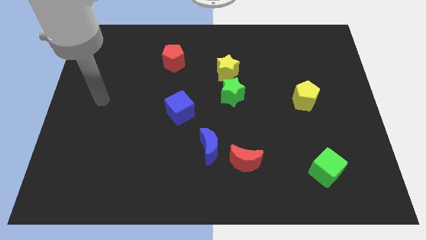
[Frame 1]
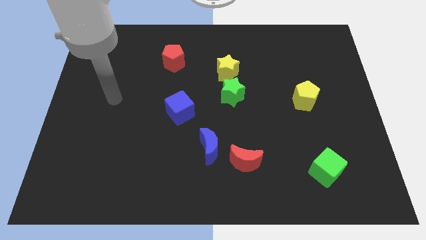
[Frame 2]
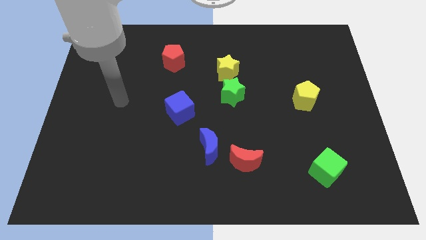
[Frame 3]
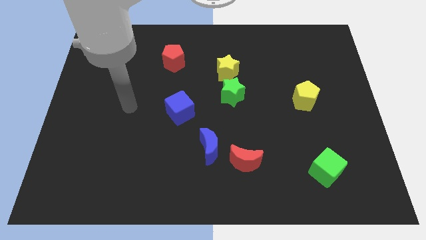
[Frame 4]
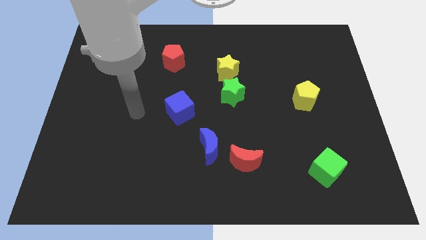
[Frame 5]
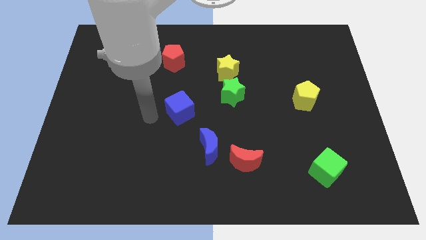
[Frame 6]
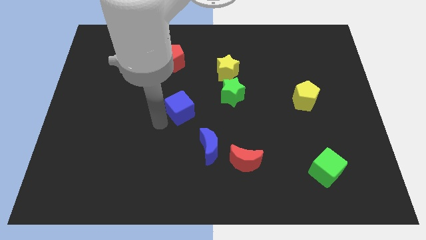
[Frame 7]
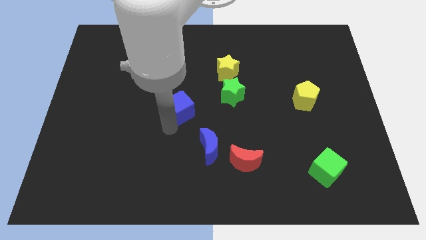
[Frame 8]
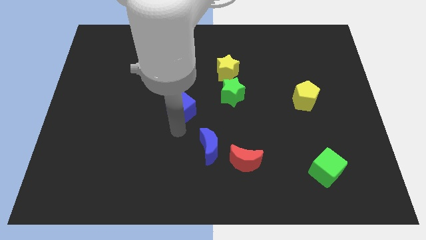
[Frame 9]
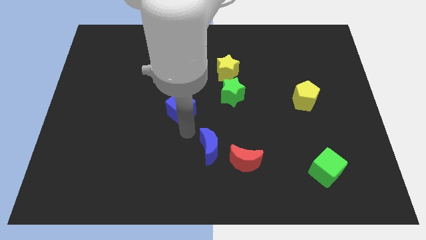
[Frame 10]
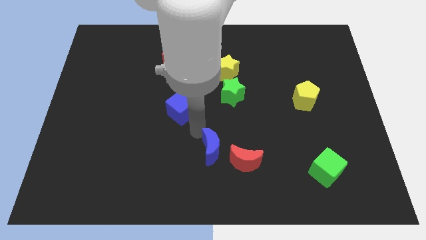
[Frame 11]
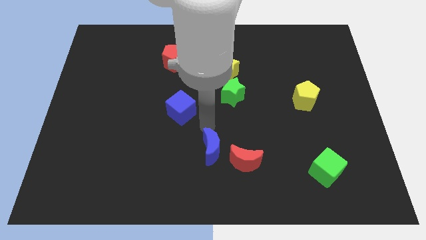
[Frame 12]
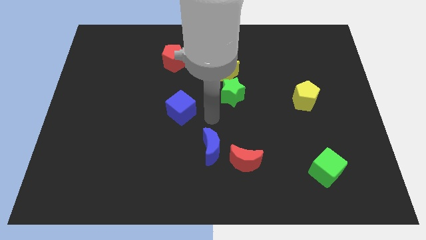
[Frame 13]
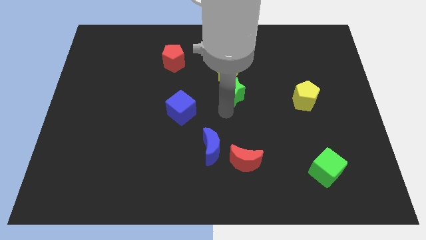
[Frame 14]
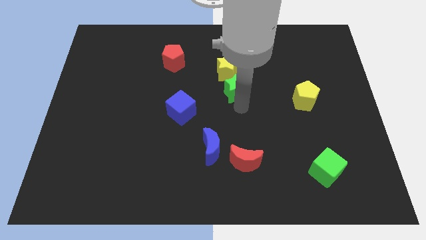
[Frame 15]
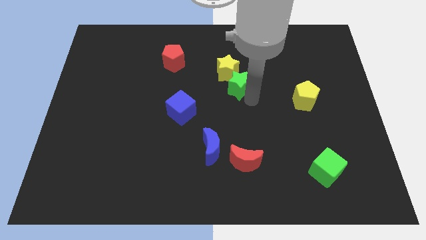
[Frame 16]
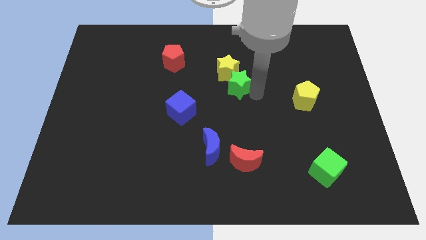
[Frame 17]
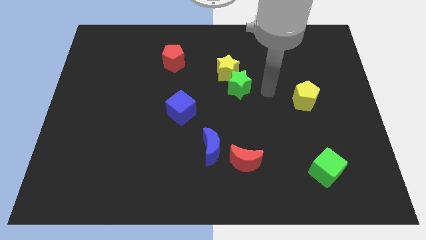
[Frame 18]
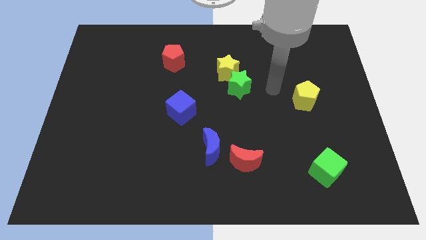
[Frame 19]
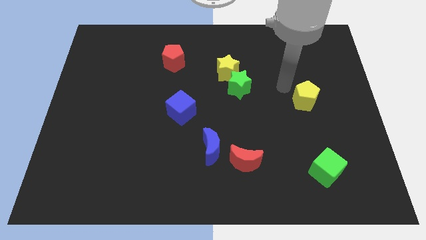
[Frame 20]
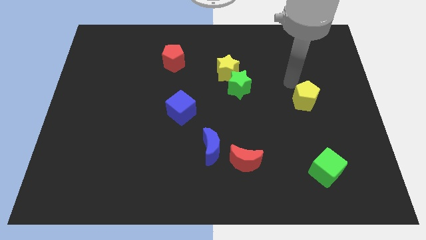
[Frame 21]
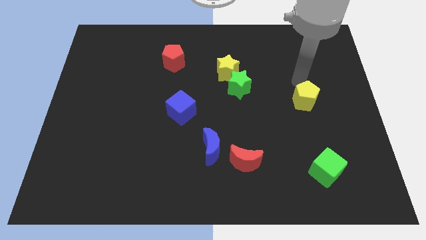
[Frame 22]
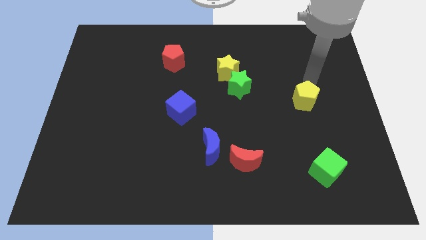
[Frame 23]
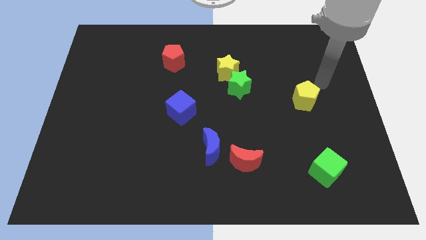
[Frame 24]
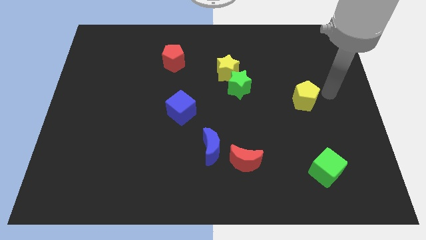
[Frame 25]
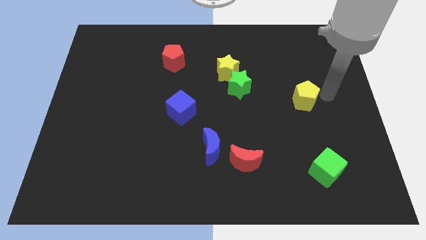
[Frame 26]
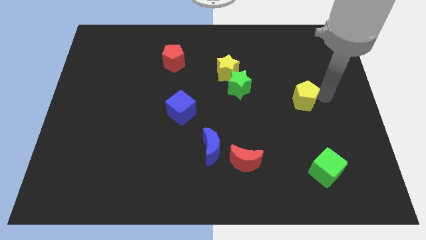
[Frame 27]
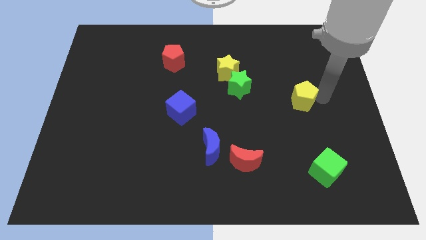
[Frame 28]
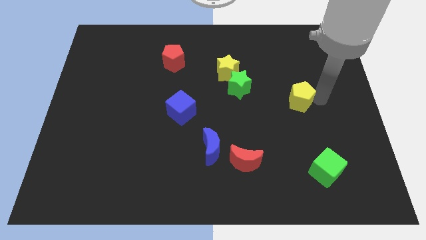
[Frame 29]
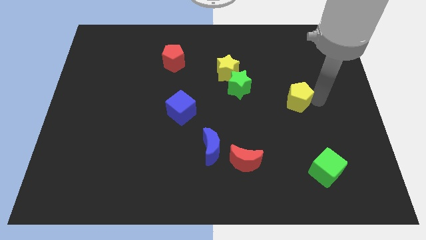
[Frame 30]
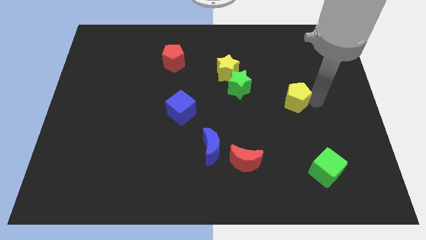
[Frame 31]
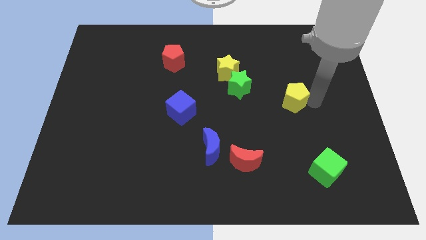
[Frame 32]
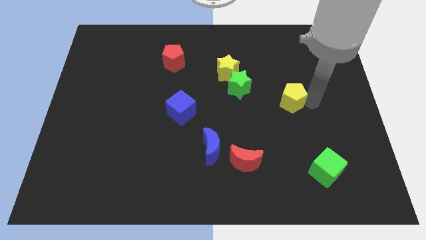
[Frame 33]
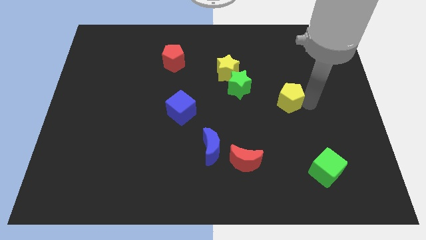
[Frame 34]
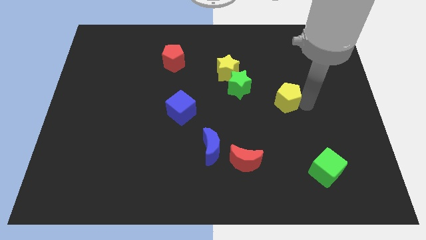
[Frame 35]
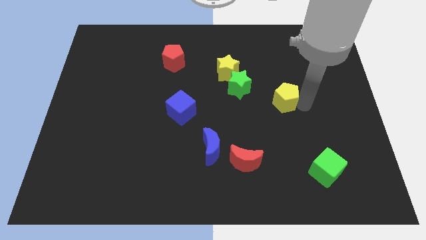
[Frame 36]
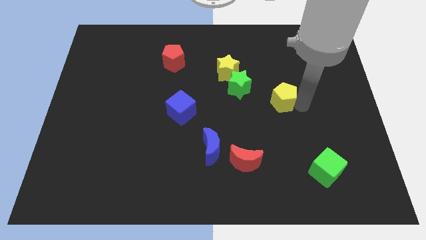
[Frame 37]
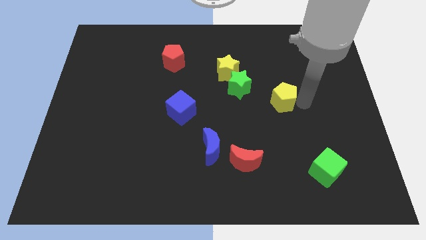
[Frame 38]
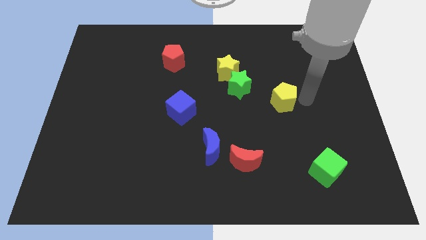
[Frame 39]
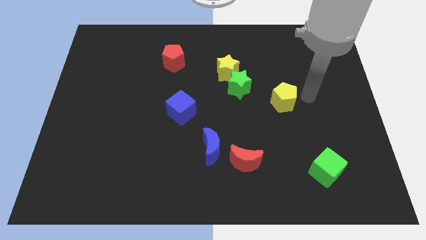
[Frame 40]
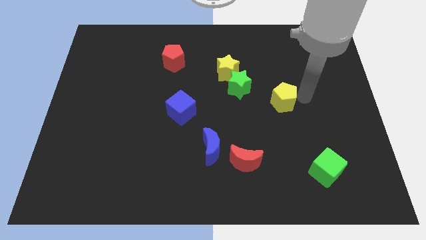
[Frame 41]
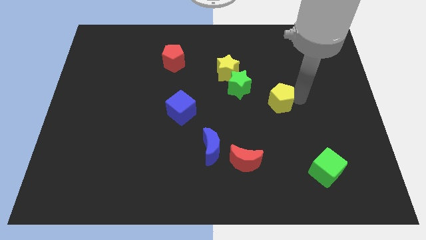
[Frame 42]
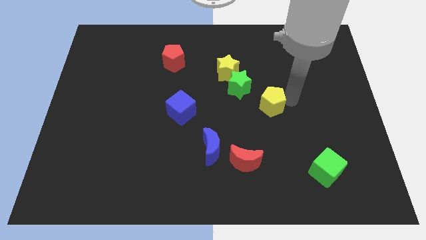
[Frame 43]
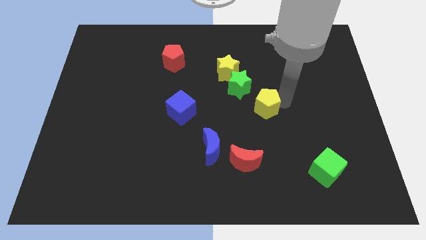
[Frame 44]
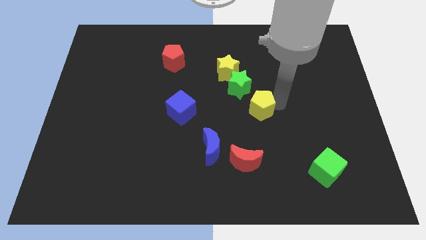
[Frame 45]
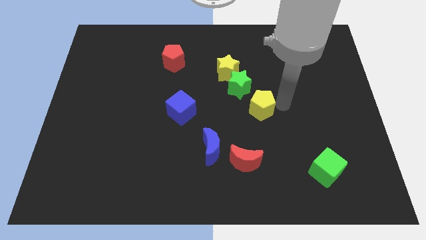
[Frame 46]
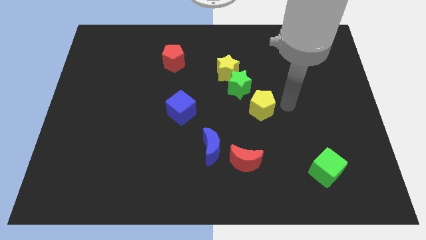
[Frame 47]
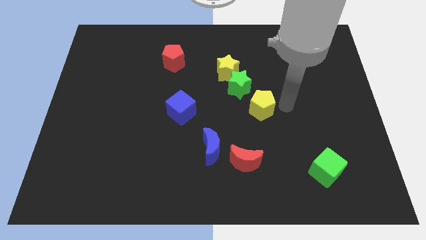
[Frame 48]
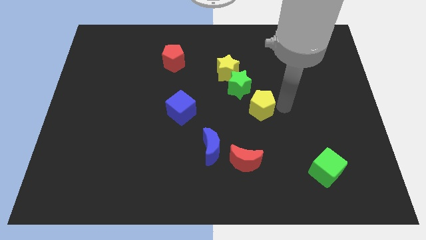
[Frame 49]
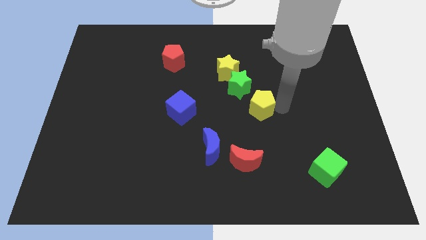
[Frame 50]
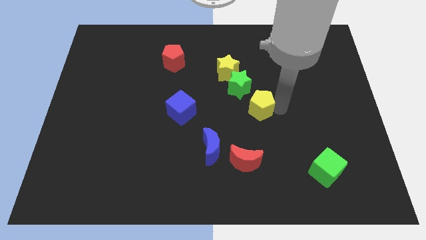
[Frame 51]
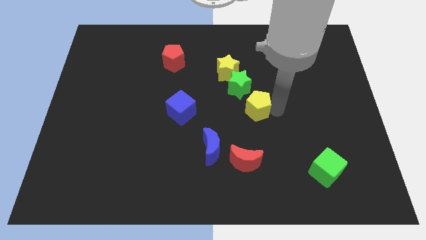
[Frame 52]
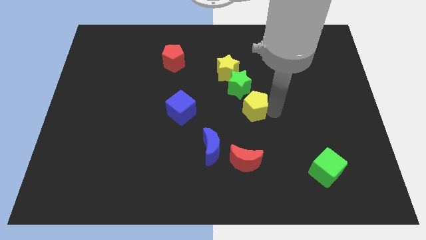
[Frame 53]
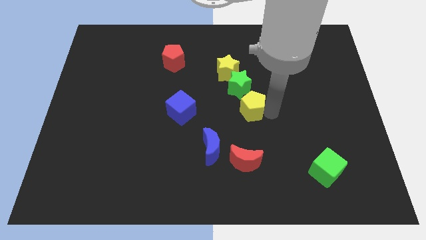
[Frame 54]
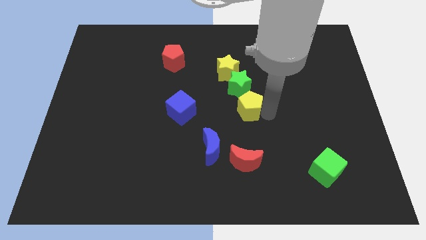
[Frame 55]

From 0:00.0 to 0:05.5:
push the yellow pentagon right of the blue cube

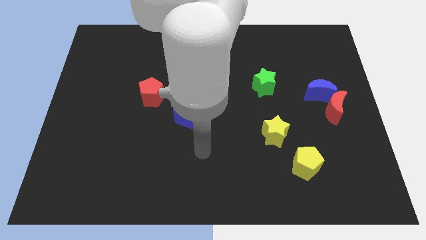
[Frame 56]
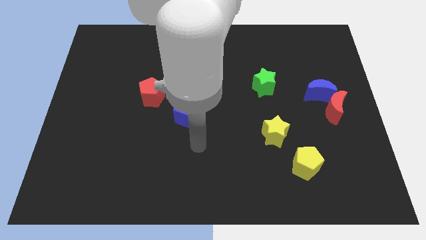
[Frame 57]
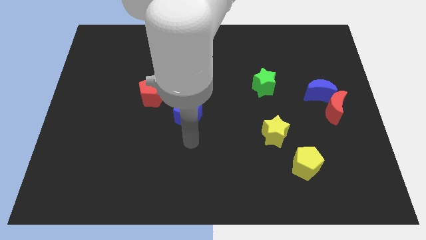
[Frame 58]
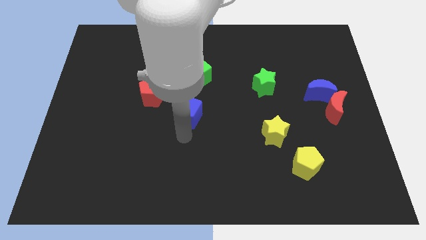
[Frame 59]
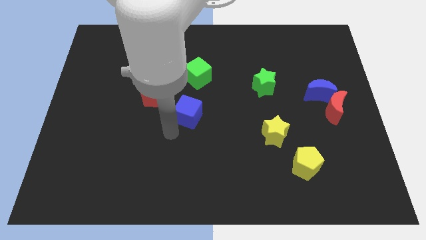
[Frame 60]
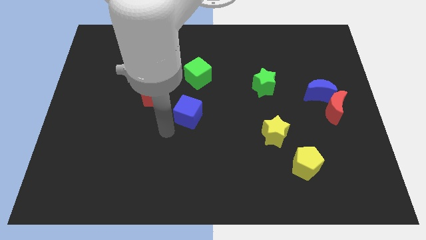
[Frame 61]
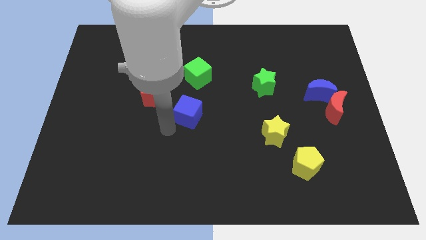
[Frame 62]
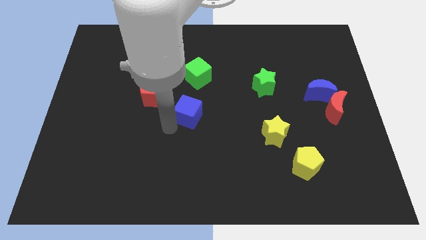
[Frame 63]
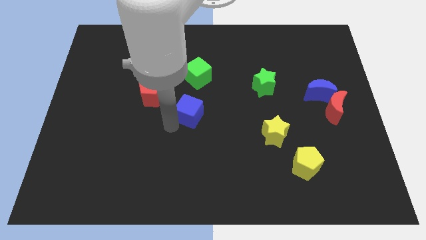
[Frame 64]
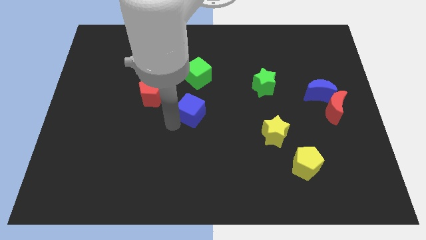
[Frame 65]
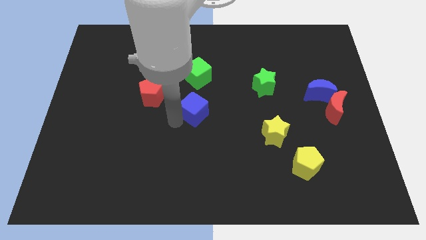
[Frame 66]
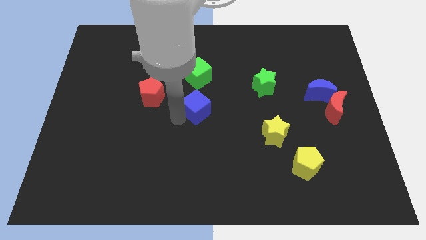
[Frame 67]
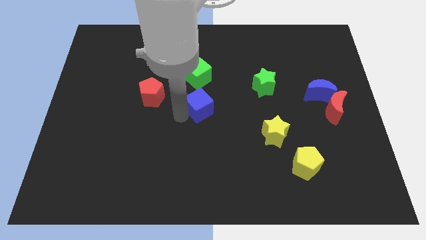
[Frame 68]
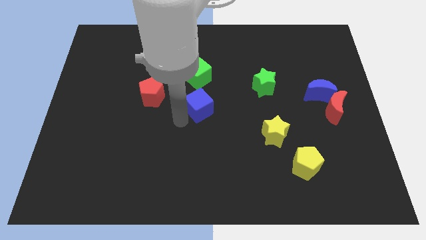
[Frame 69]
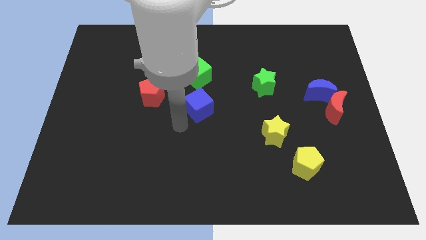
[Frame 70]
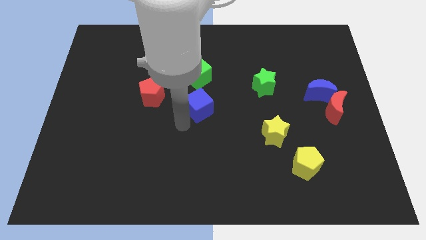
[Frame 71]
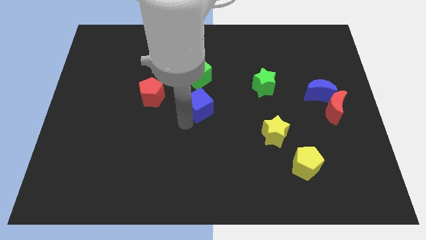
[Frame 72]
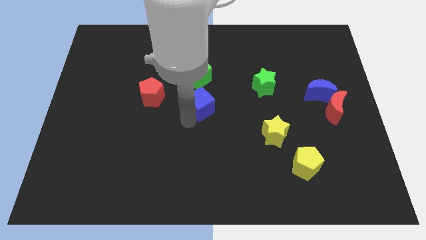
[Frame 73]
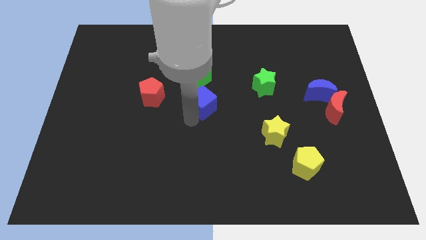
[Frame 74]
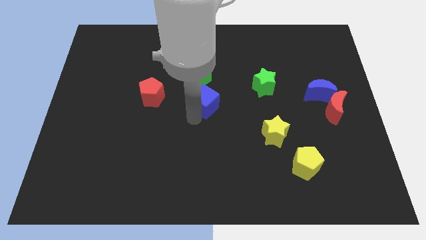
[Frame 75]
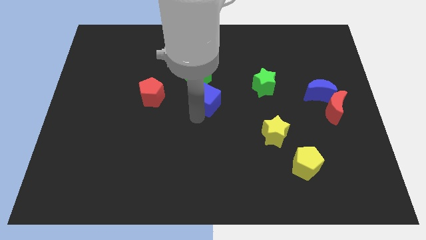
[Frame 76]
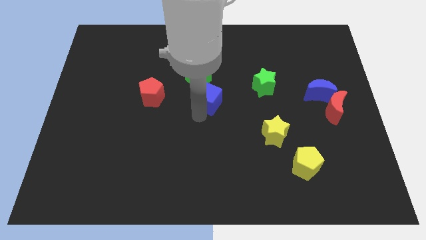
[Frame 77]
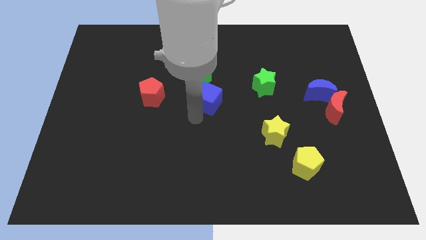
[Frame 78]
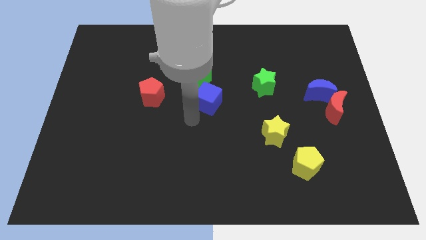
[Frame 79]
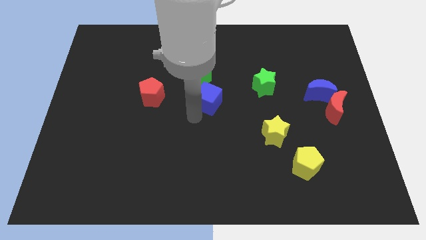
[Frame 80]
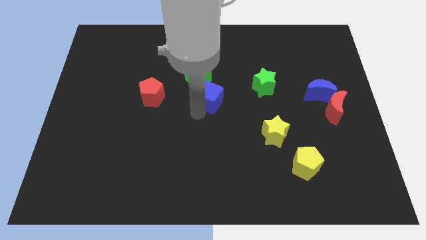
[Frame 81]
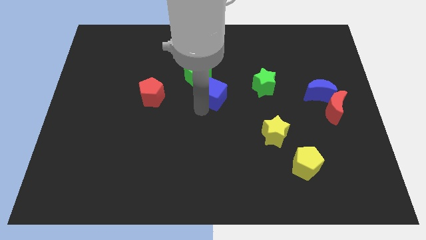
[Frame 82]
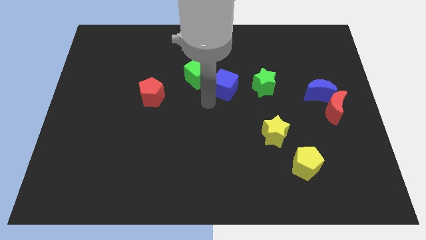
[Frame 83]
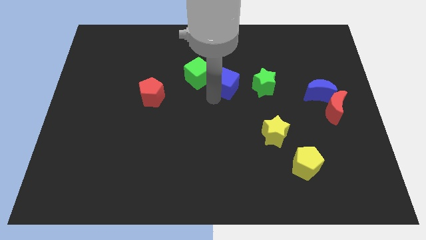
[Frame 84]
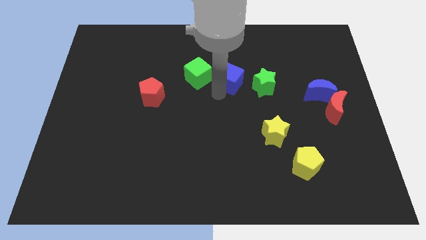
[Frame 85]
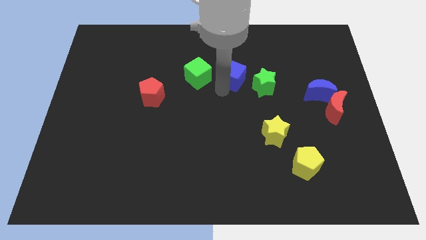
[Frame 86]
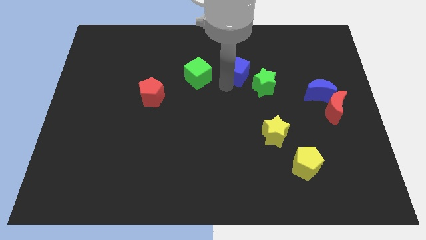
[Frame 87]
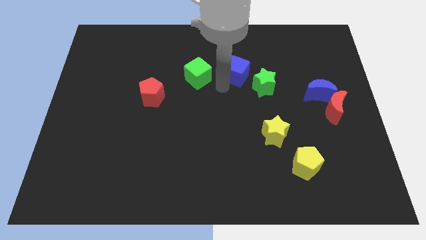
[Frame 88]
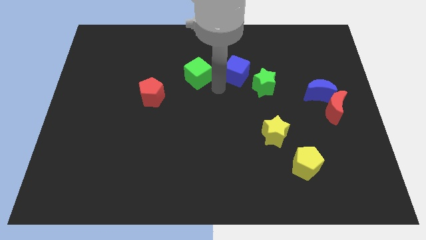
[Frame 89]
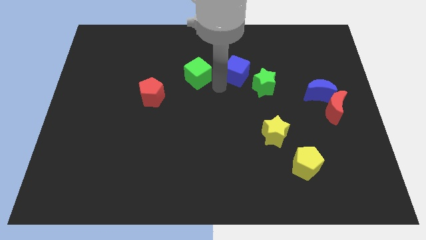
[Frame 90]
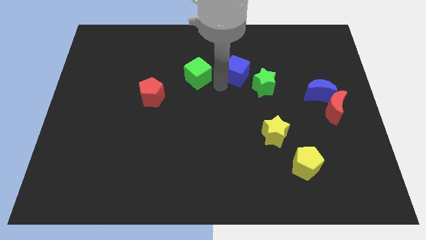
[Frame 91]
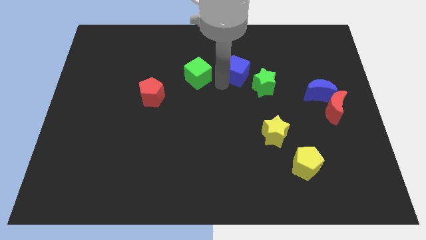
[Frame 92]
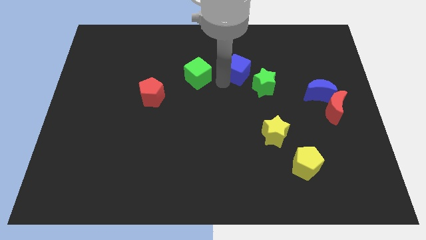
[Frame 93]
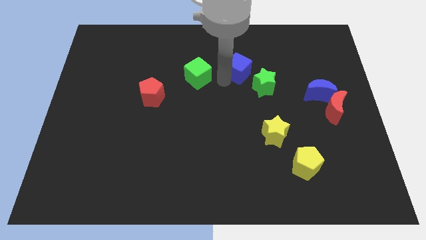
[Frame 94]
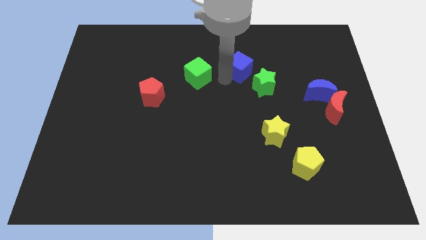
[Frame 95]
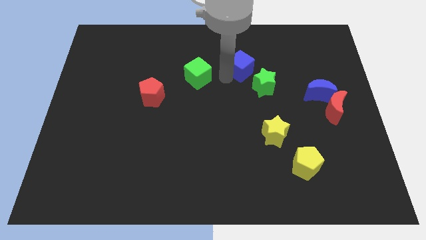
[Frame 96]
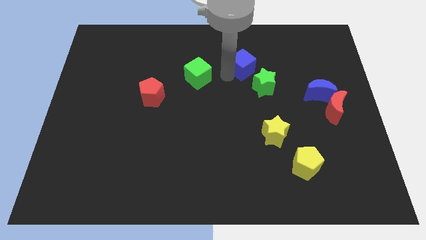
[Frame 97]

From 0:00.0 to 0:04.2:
push the blue cube to the top of the green star
